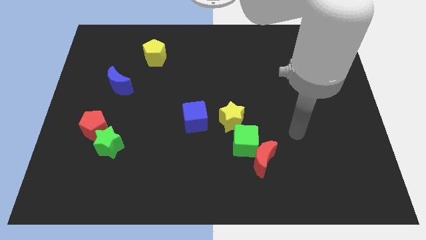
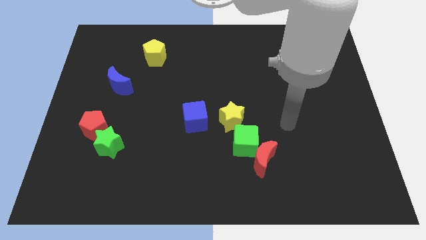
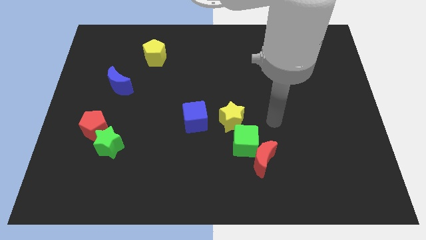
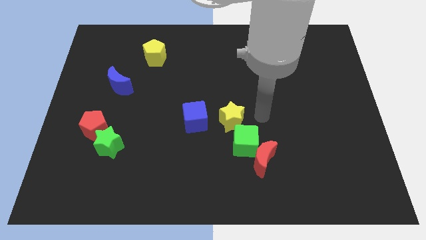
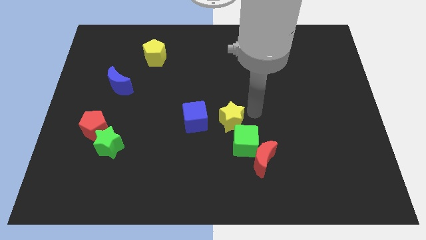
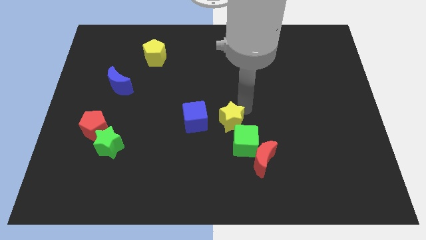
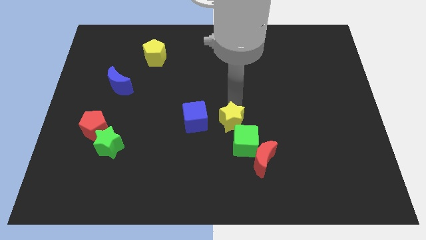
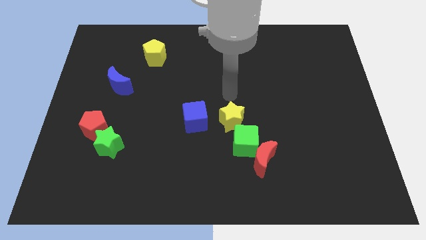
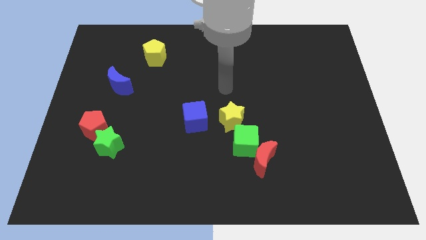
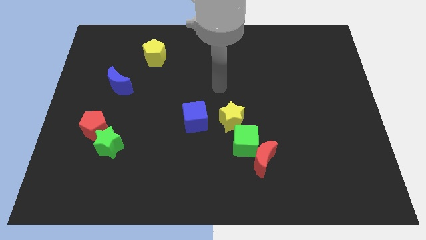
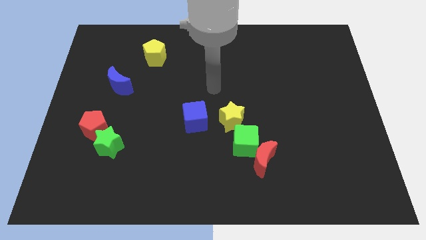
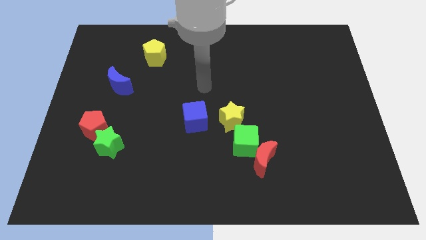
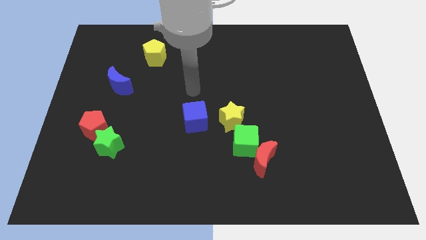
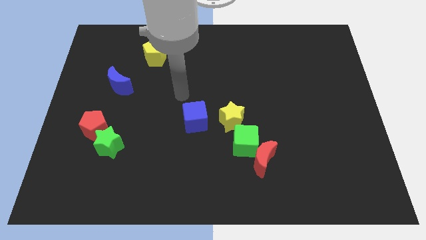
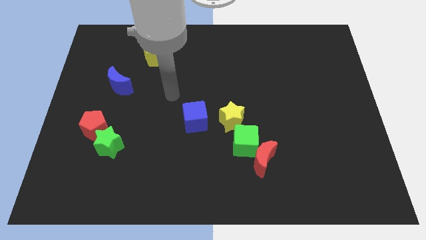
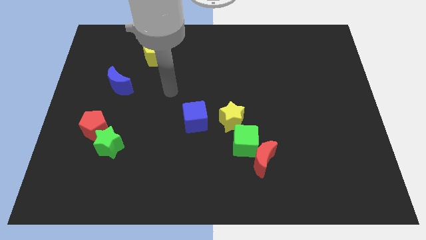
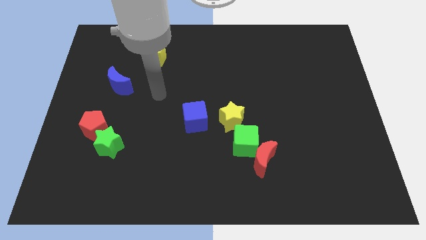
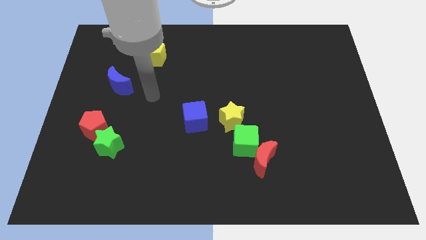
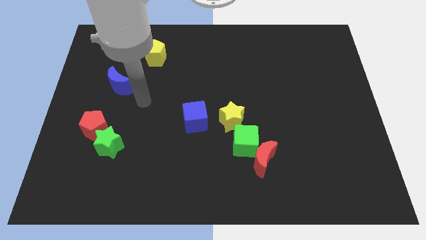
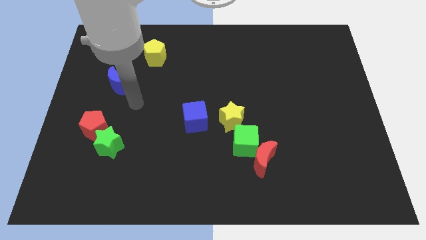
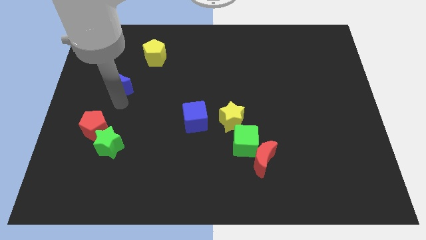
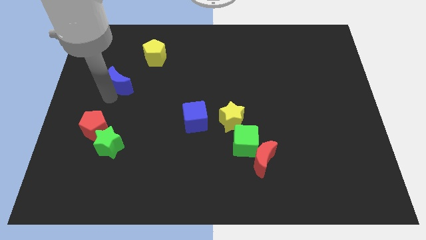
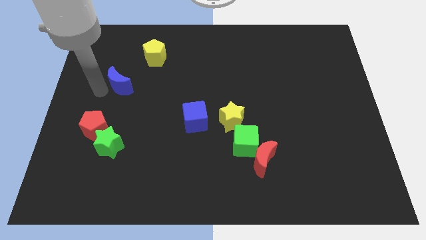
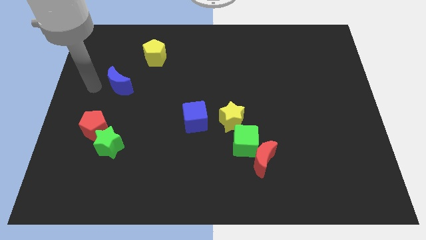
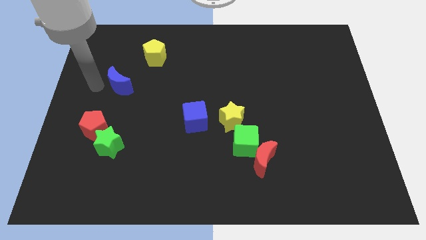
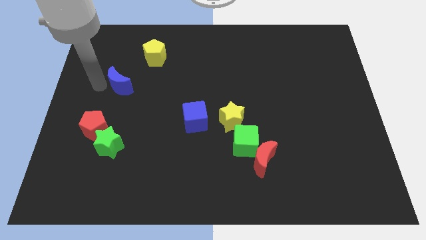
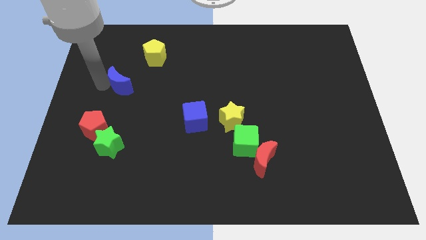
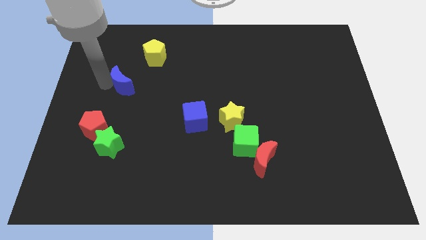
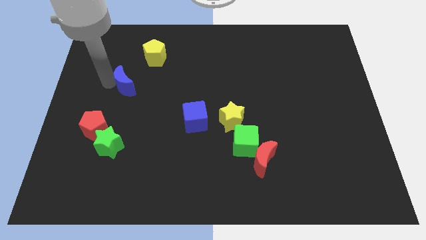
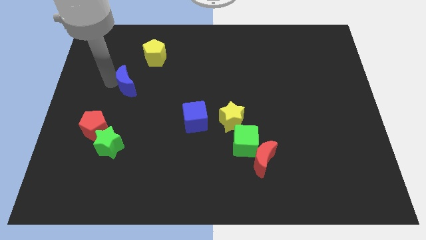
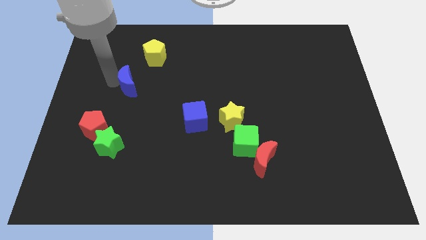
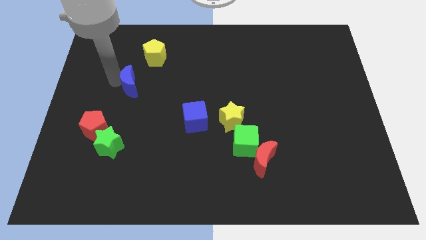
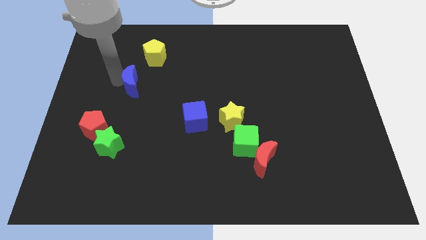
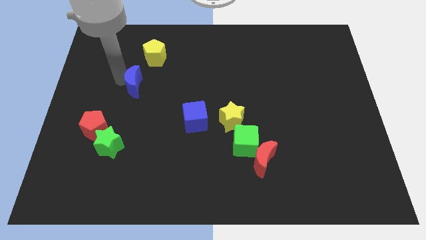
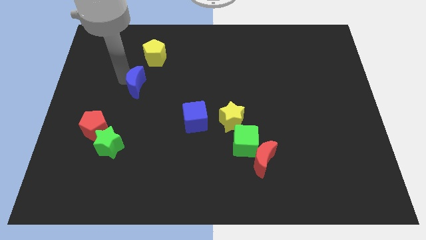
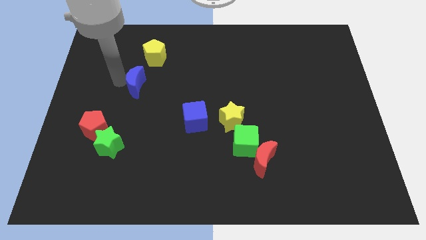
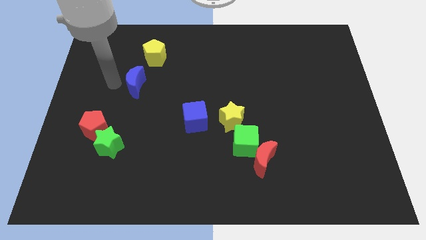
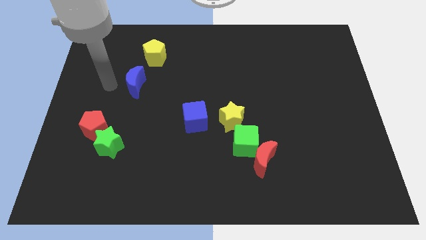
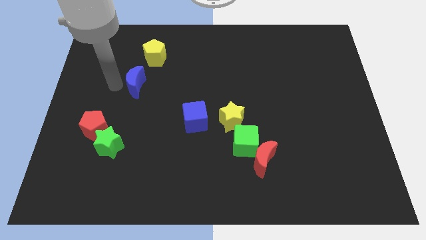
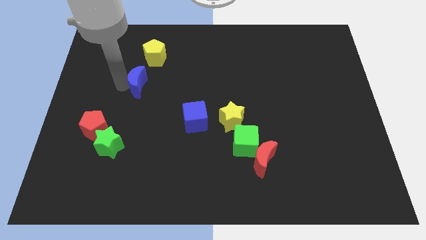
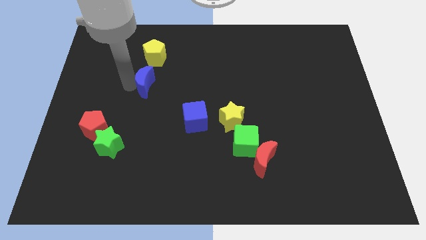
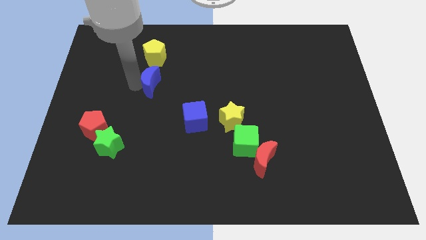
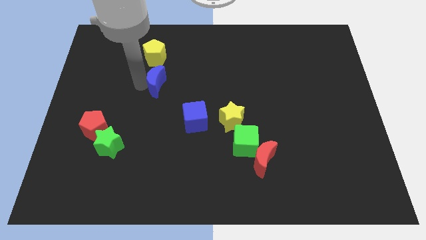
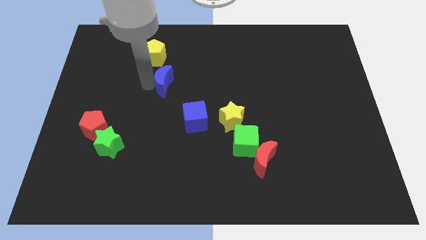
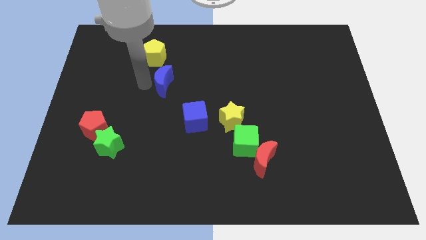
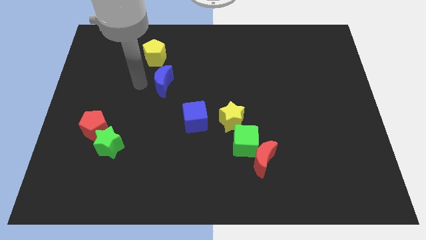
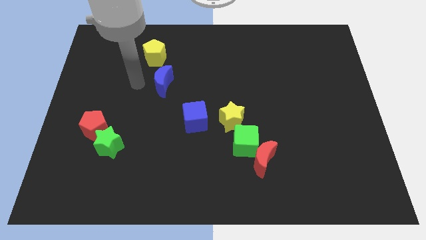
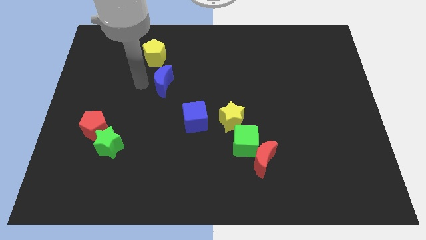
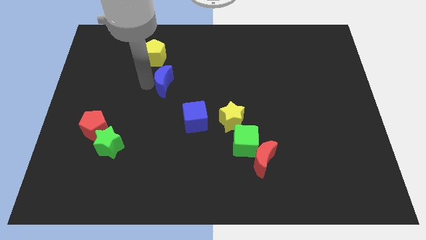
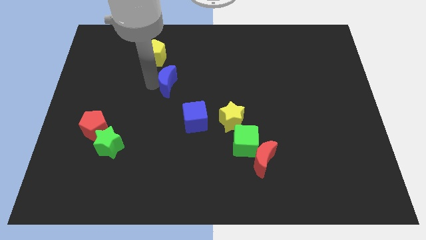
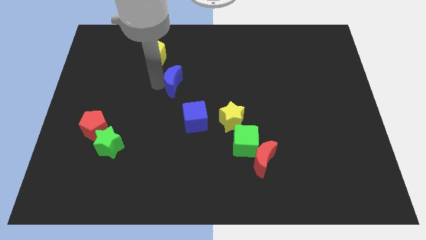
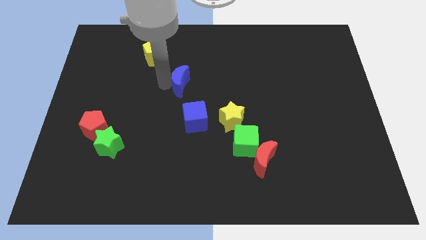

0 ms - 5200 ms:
put the blue moon to the top side of the blue cube

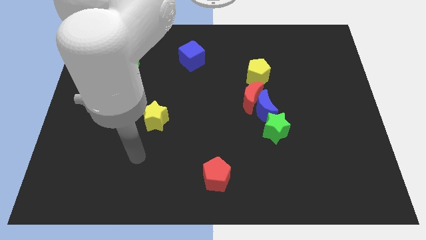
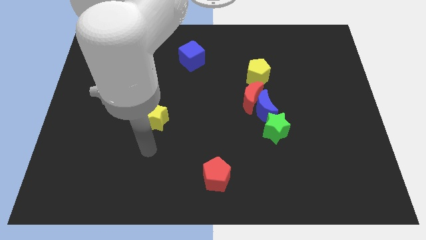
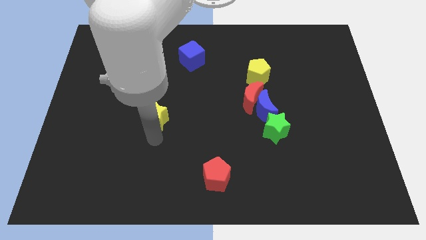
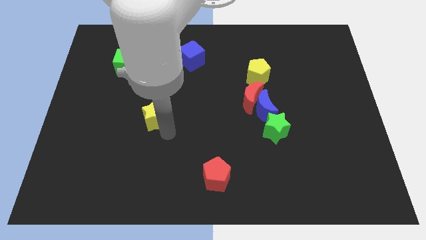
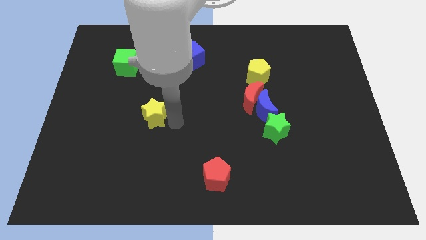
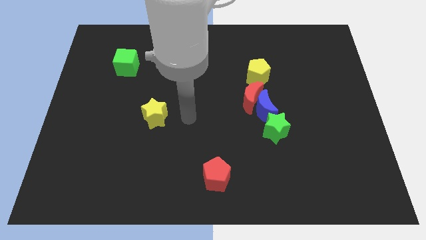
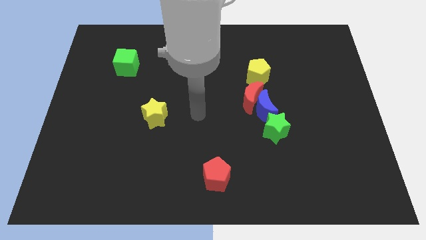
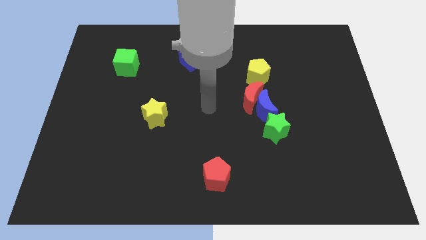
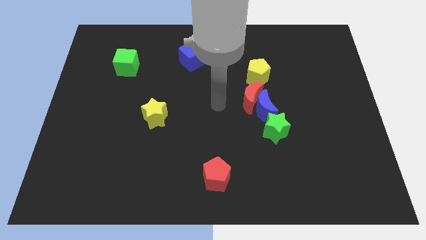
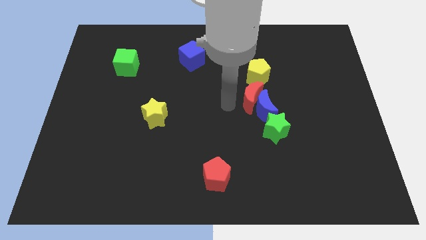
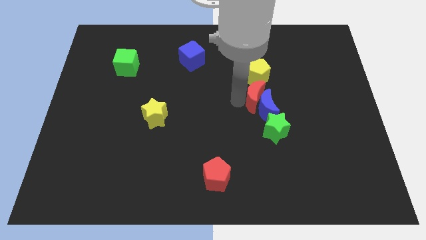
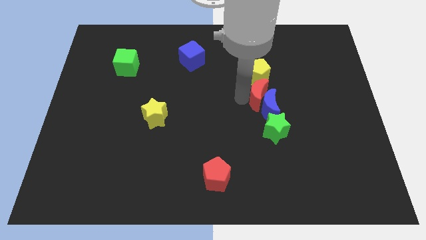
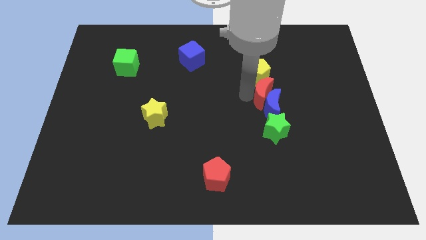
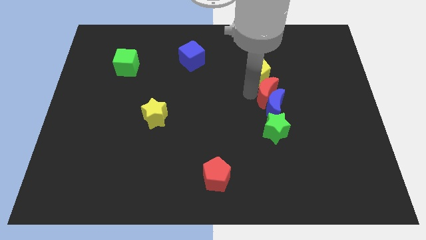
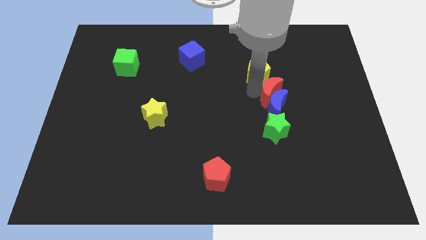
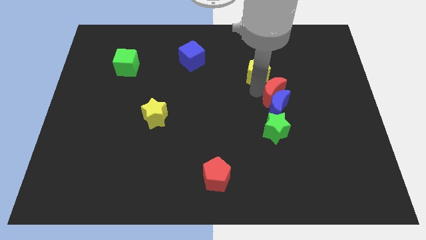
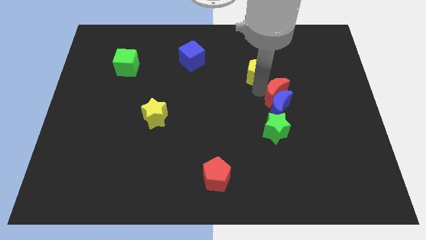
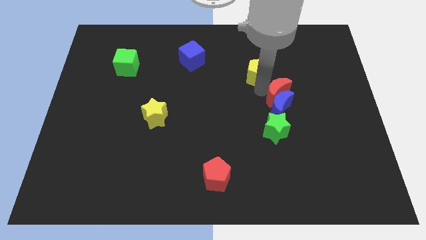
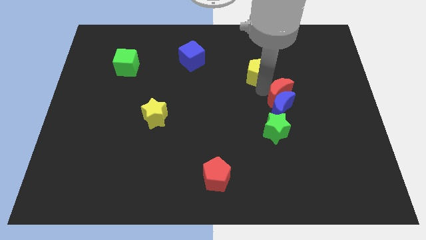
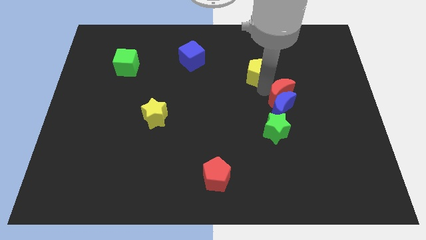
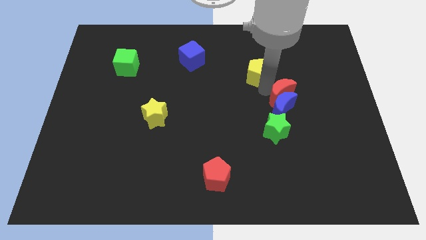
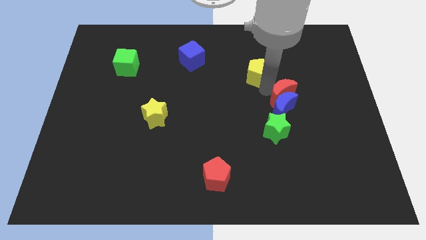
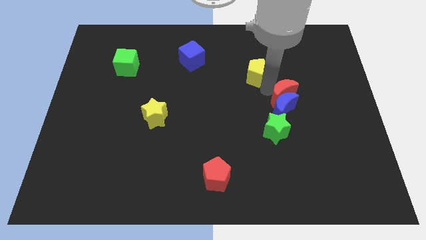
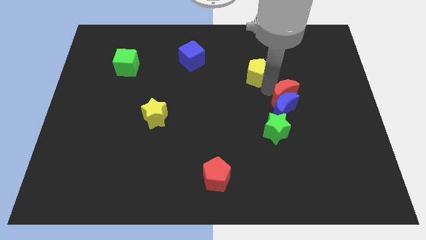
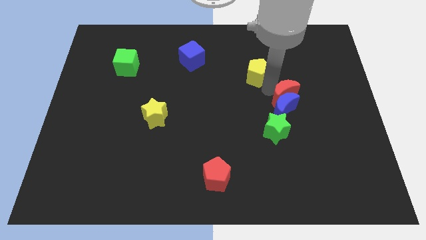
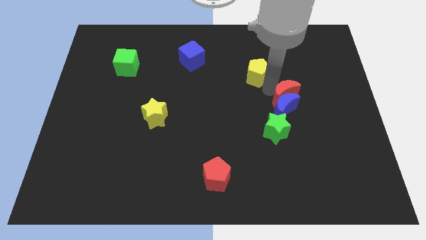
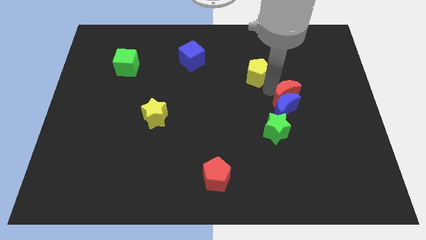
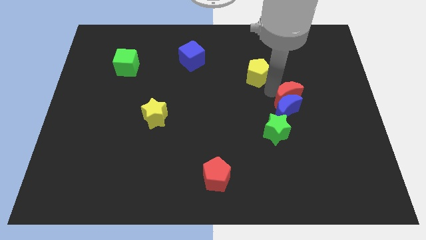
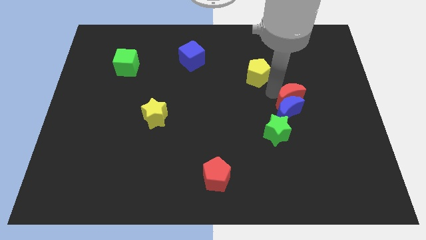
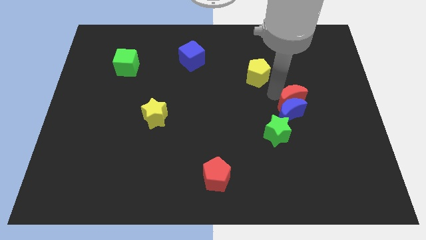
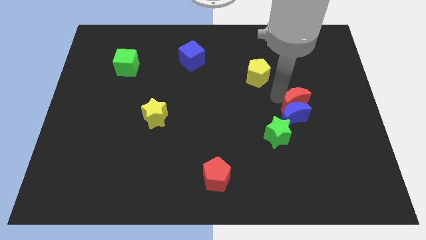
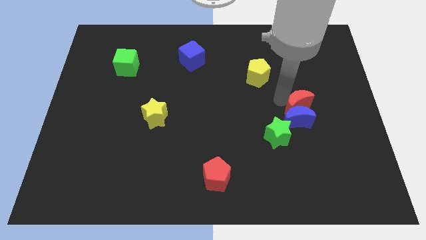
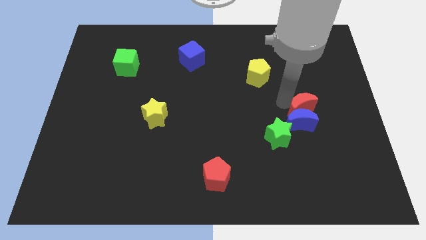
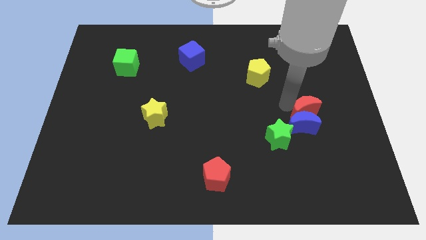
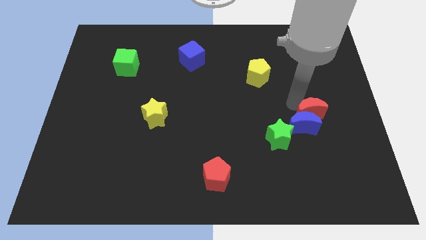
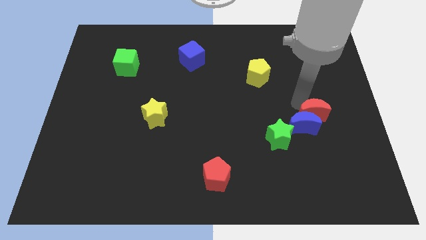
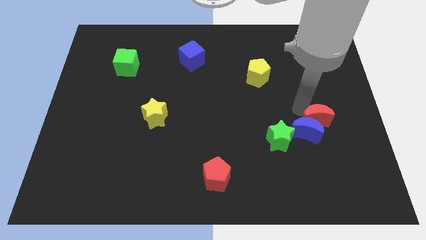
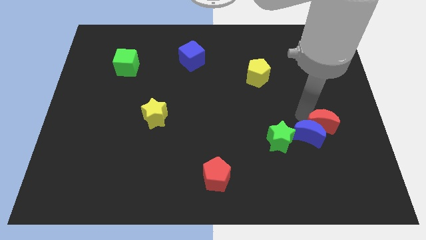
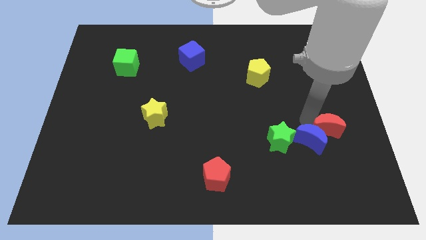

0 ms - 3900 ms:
push the blue moon to the bottom right side of the green star
